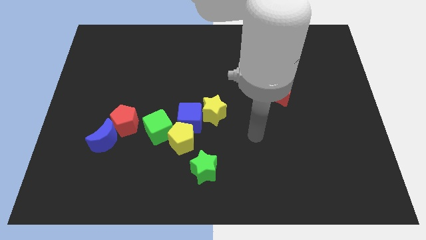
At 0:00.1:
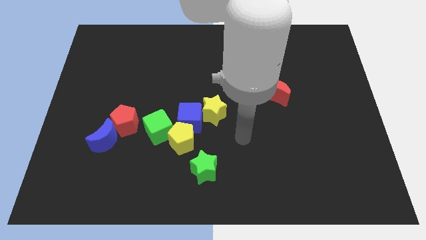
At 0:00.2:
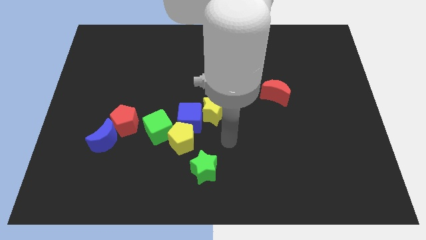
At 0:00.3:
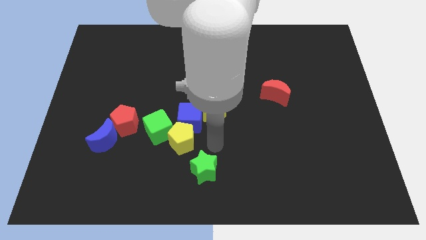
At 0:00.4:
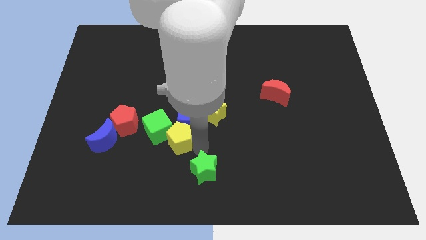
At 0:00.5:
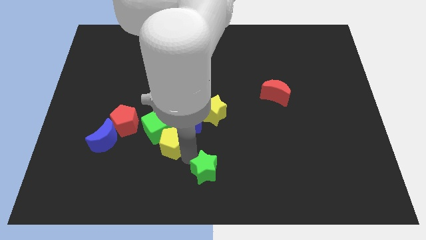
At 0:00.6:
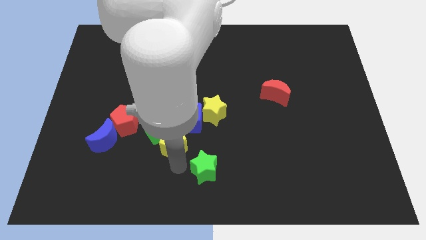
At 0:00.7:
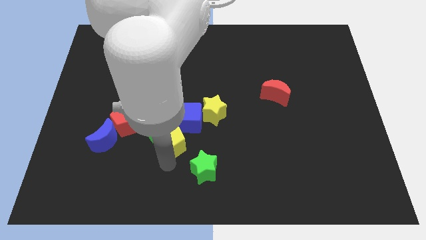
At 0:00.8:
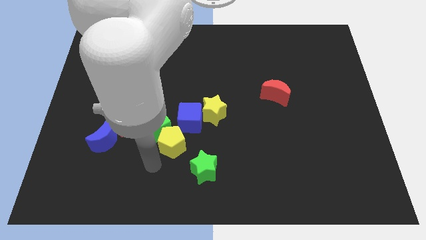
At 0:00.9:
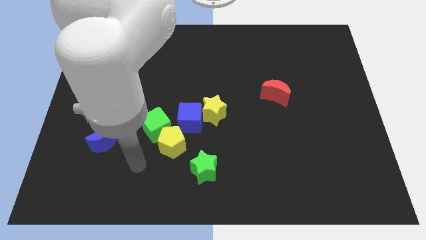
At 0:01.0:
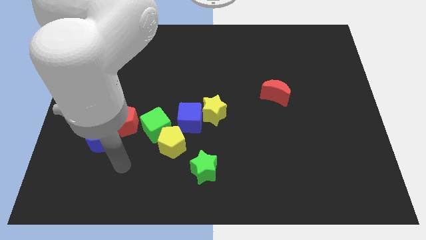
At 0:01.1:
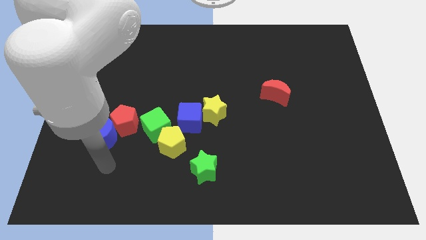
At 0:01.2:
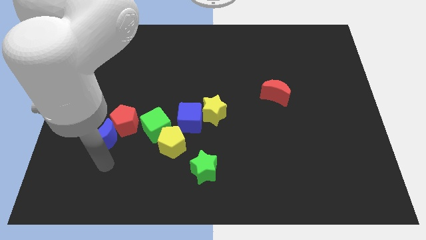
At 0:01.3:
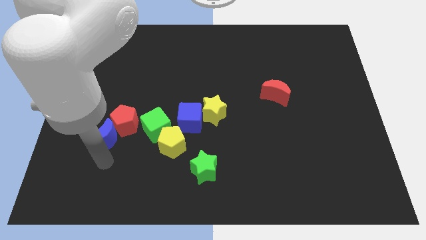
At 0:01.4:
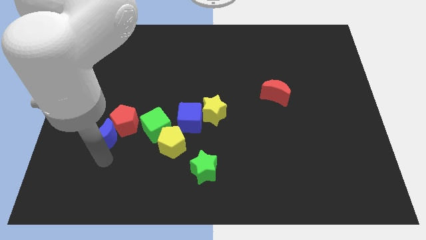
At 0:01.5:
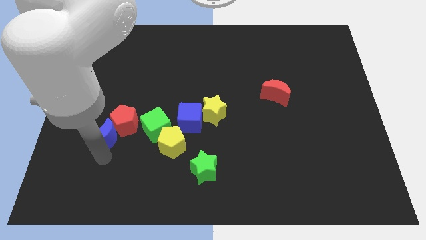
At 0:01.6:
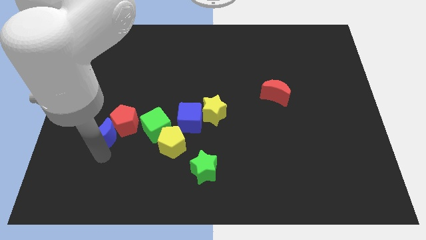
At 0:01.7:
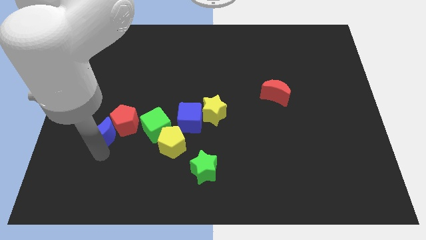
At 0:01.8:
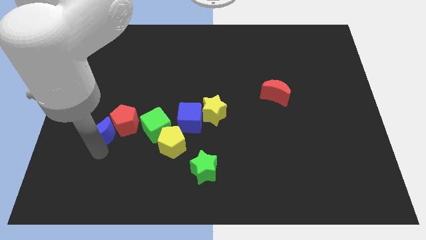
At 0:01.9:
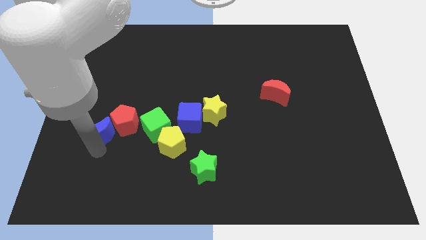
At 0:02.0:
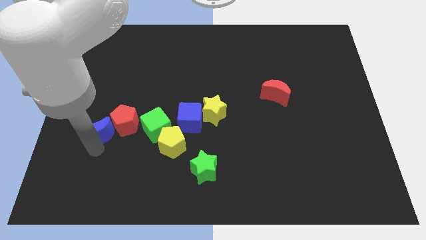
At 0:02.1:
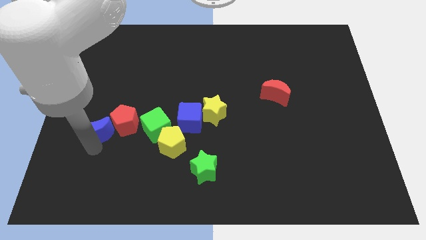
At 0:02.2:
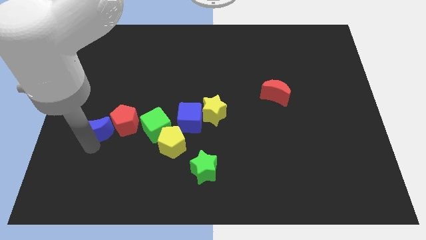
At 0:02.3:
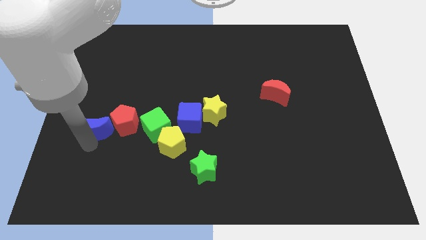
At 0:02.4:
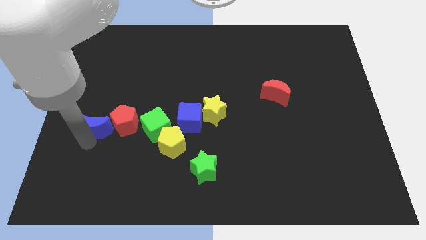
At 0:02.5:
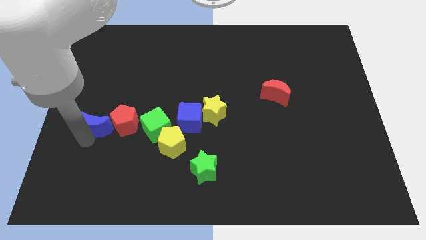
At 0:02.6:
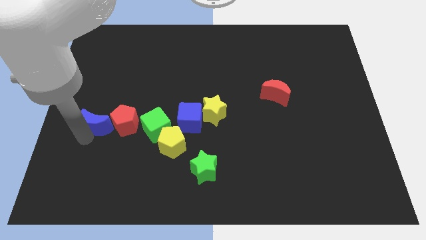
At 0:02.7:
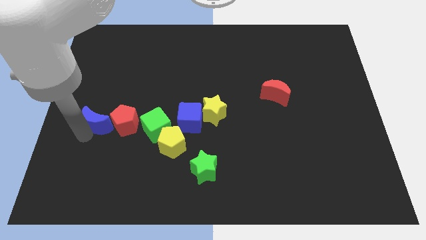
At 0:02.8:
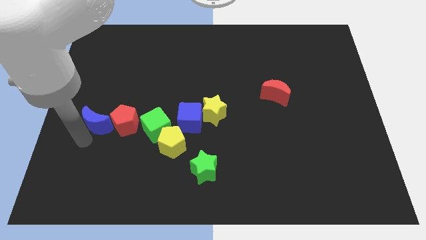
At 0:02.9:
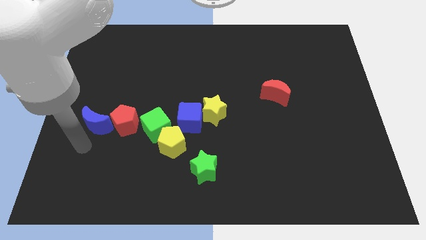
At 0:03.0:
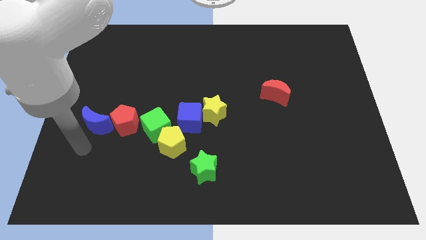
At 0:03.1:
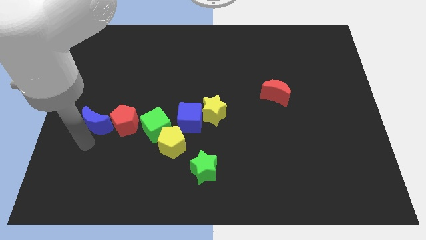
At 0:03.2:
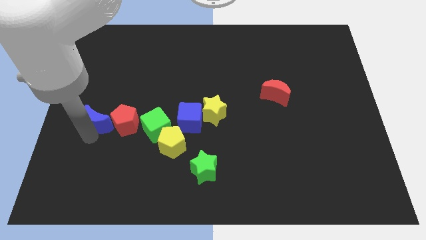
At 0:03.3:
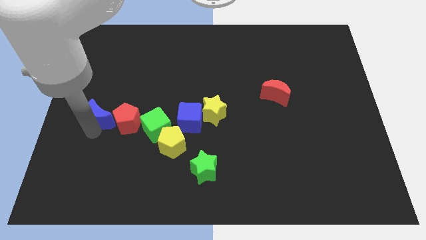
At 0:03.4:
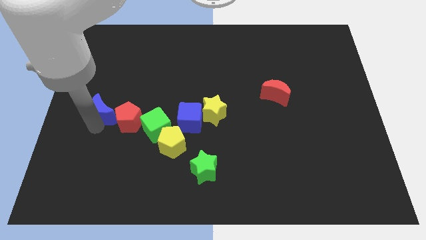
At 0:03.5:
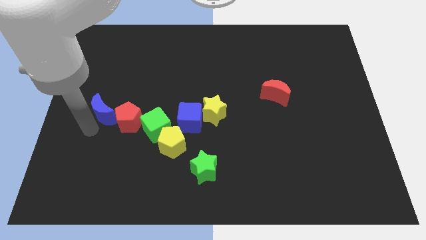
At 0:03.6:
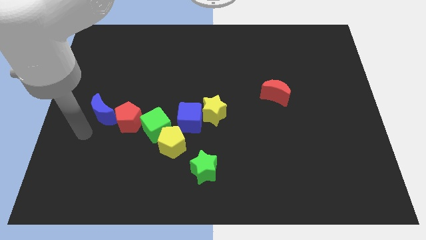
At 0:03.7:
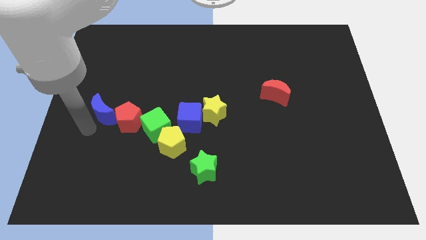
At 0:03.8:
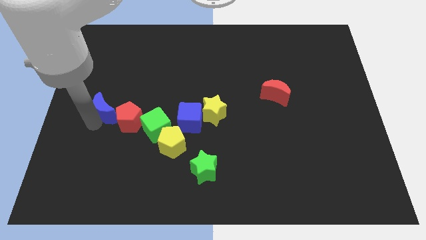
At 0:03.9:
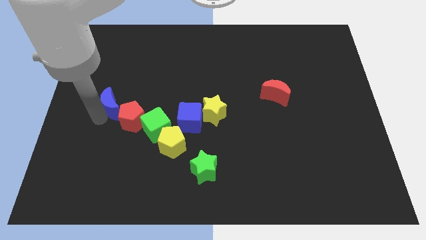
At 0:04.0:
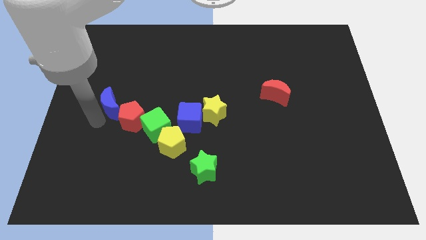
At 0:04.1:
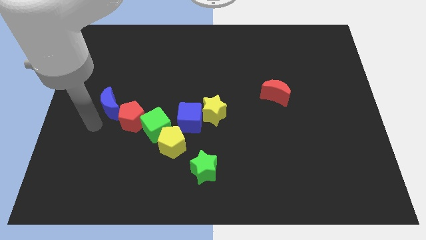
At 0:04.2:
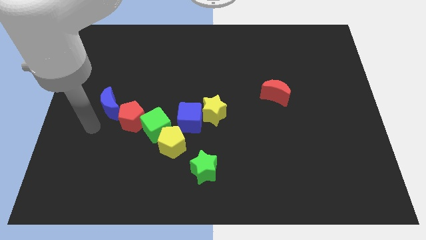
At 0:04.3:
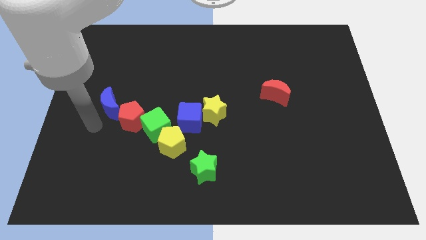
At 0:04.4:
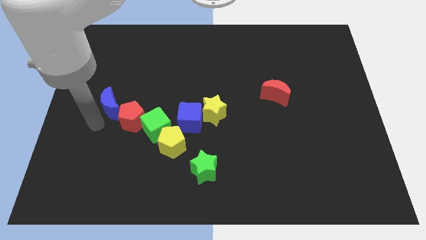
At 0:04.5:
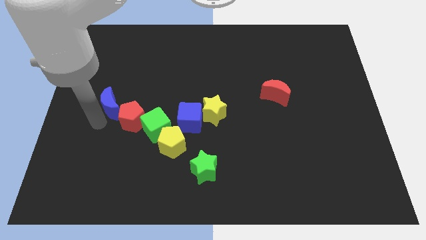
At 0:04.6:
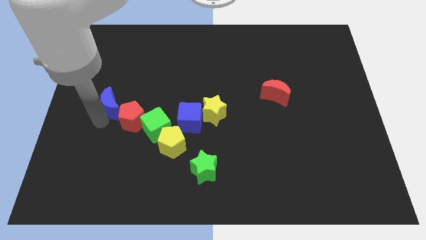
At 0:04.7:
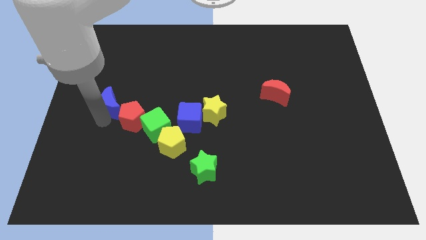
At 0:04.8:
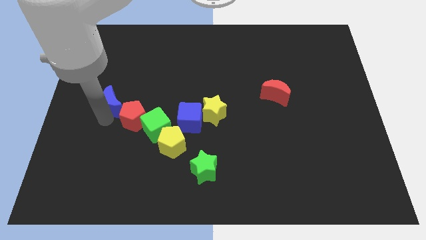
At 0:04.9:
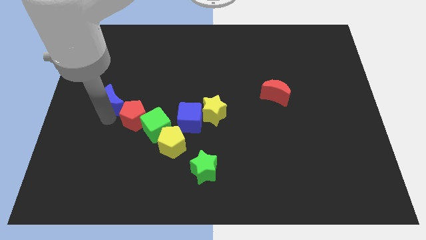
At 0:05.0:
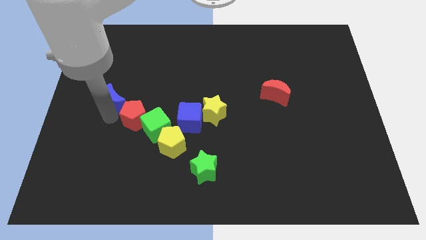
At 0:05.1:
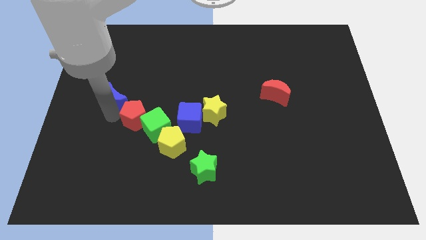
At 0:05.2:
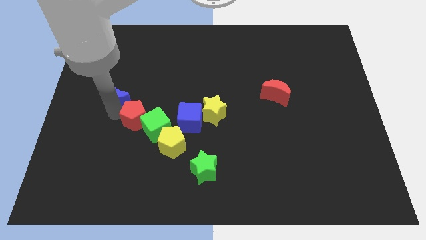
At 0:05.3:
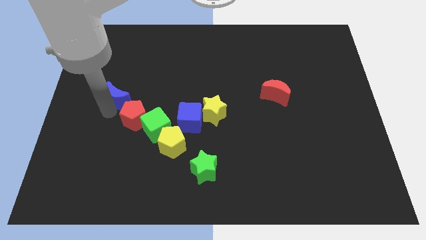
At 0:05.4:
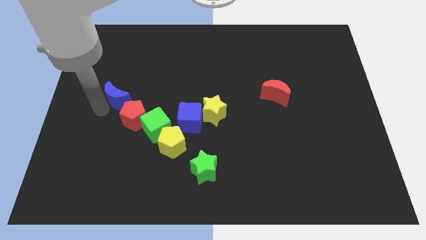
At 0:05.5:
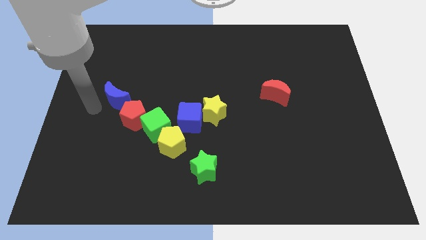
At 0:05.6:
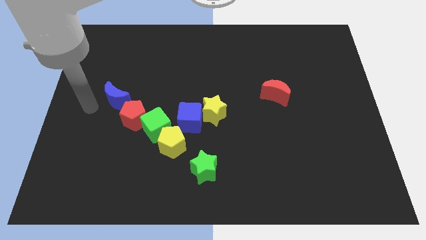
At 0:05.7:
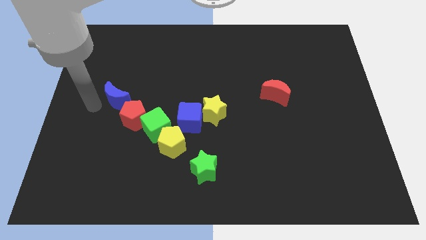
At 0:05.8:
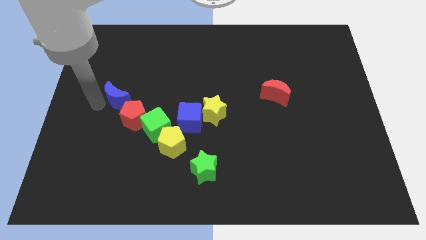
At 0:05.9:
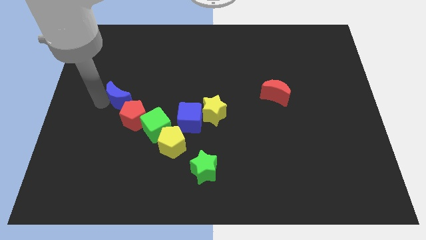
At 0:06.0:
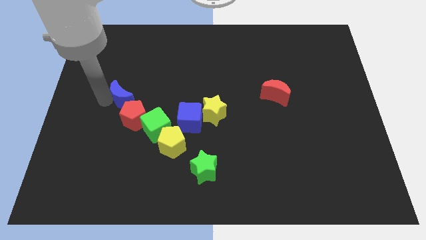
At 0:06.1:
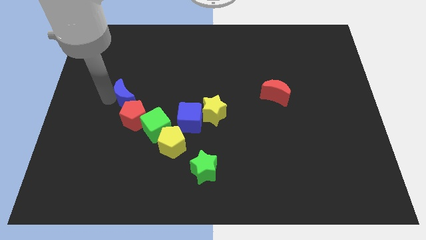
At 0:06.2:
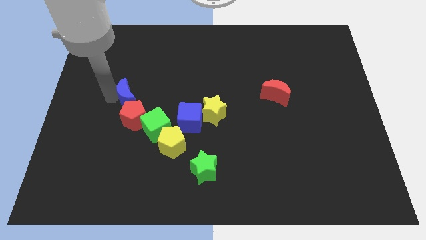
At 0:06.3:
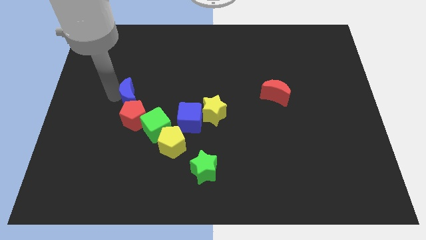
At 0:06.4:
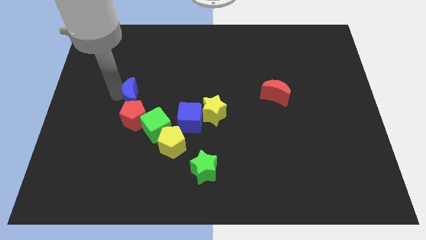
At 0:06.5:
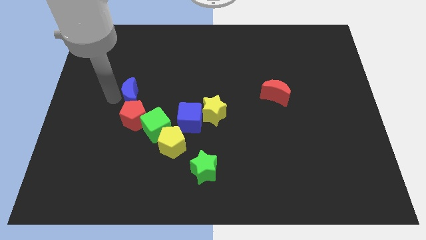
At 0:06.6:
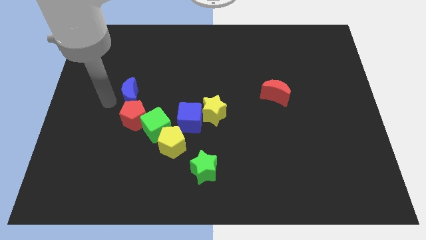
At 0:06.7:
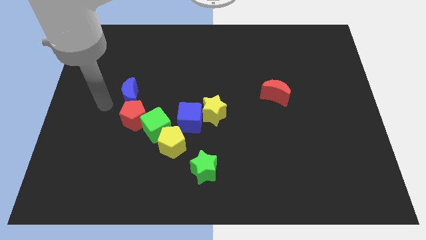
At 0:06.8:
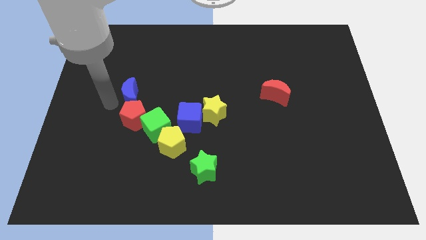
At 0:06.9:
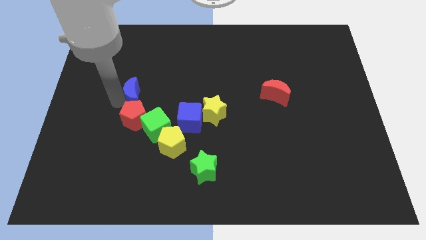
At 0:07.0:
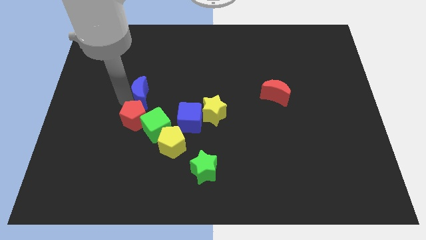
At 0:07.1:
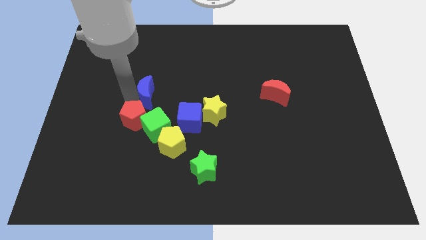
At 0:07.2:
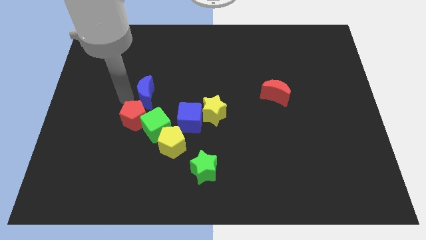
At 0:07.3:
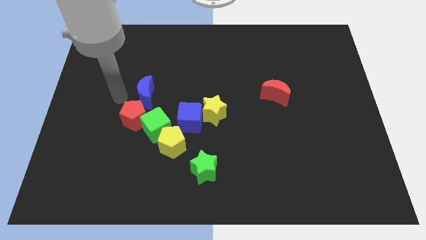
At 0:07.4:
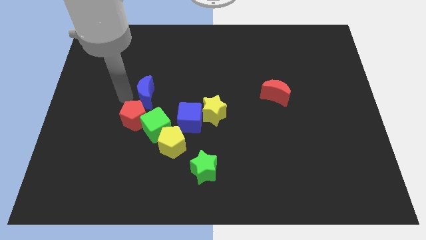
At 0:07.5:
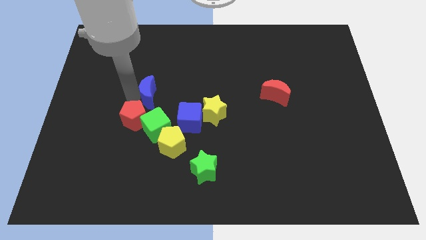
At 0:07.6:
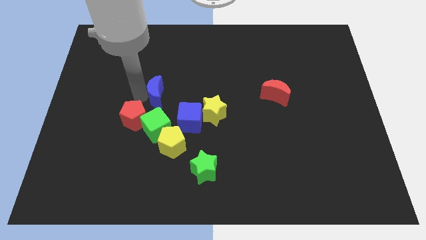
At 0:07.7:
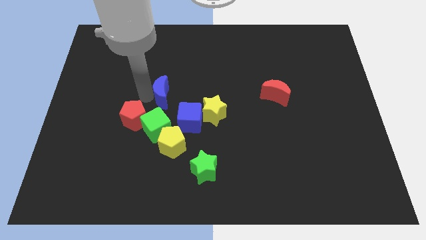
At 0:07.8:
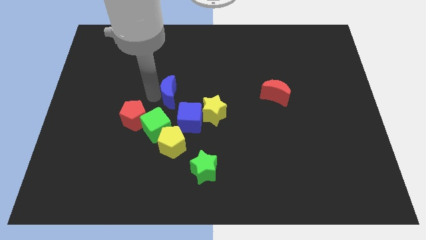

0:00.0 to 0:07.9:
move the blue moon to the top left side of the yellow star
